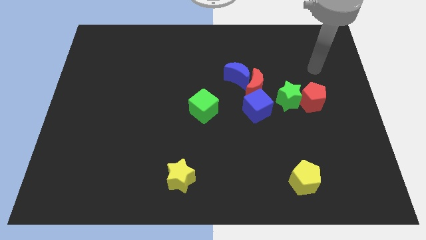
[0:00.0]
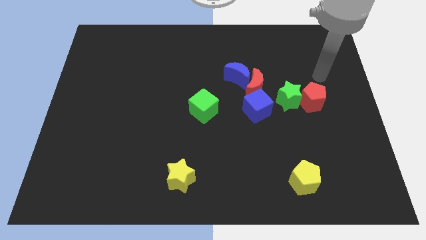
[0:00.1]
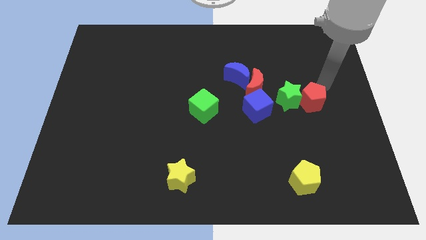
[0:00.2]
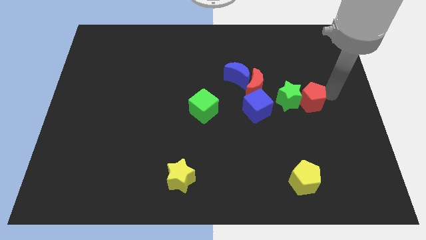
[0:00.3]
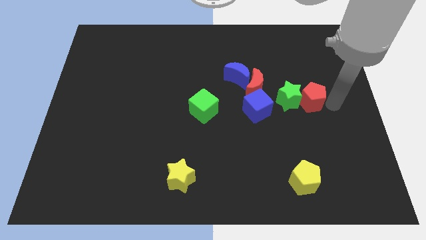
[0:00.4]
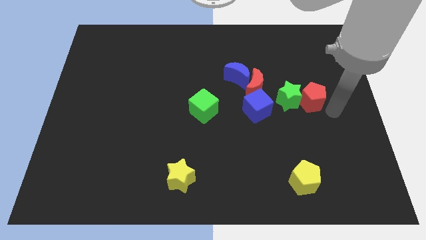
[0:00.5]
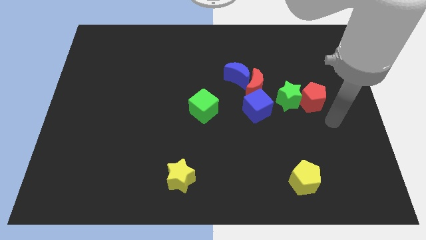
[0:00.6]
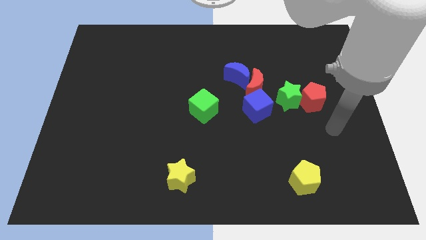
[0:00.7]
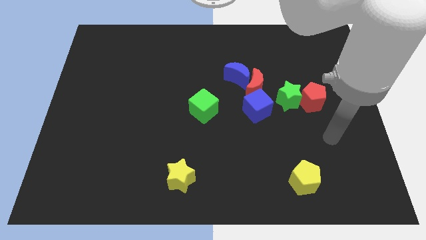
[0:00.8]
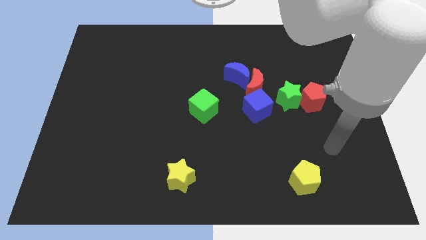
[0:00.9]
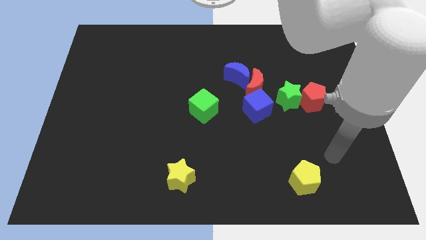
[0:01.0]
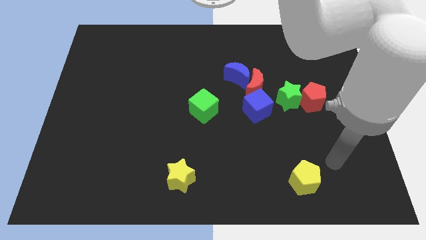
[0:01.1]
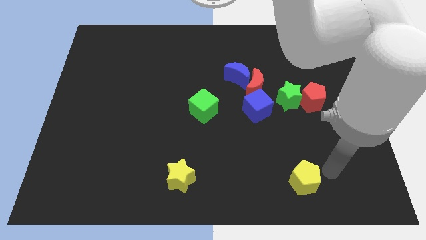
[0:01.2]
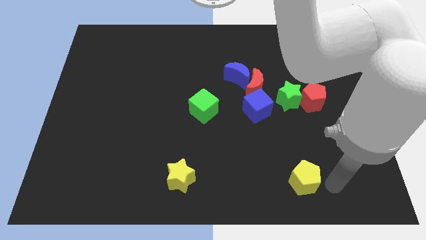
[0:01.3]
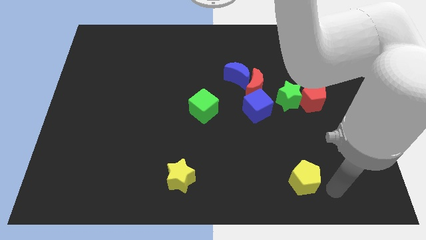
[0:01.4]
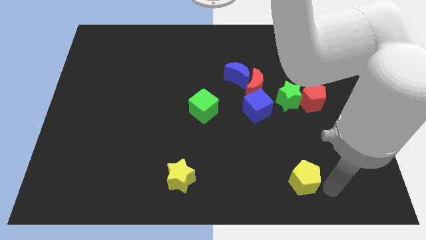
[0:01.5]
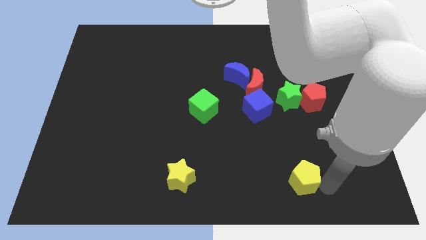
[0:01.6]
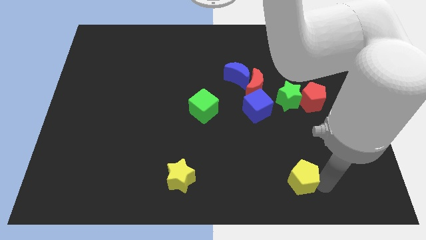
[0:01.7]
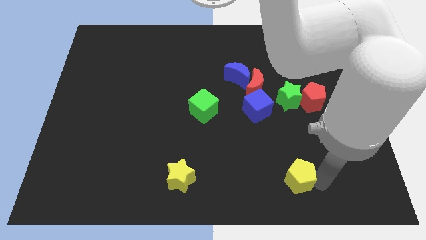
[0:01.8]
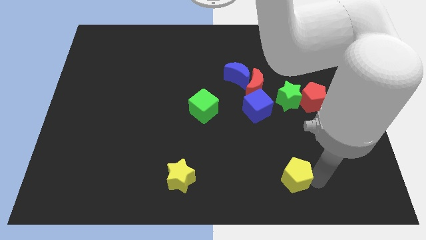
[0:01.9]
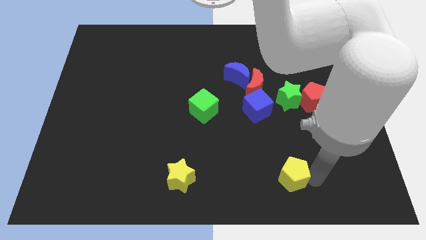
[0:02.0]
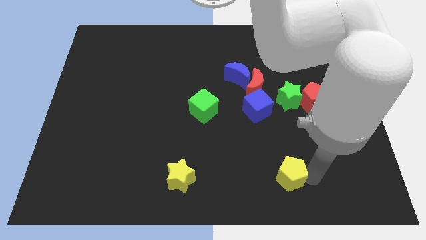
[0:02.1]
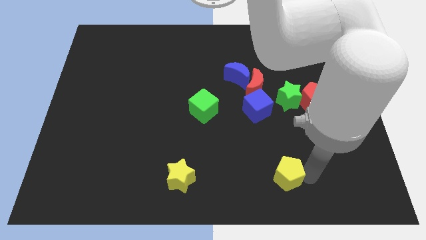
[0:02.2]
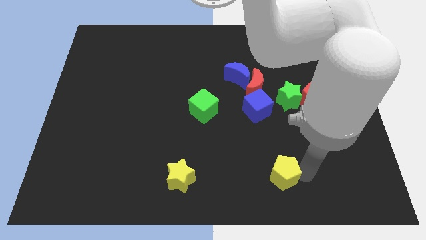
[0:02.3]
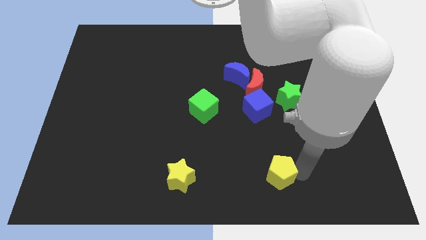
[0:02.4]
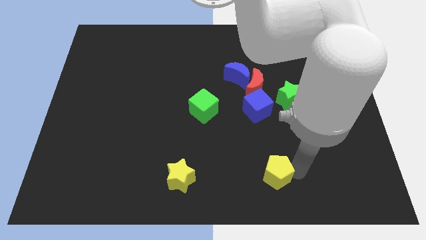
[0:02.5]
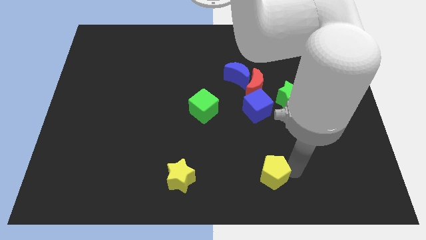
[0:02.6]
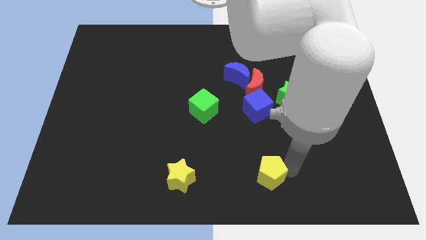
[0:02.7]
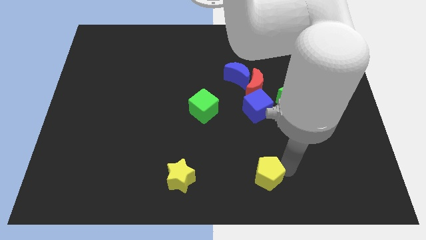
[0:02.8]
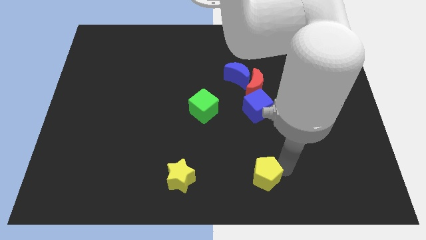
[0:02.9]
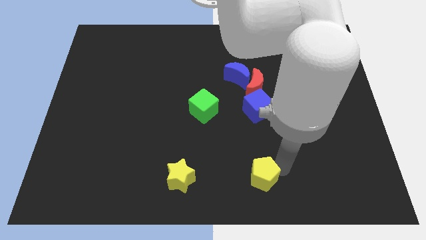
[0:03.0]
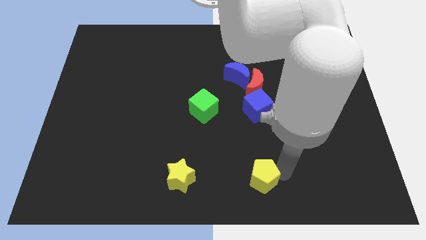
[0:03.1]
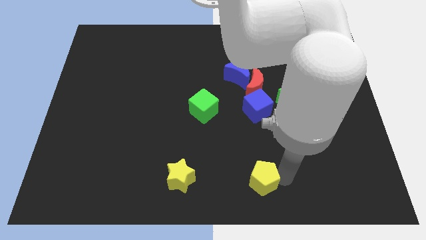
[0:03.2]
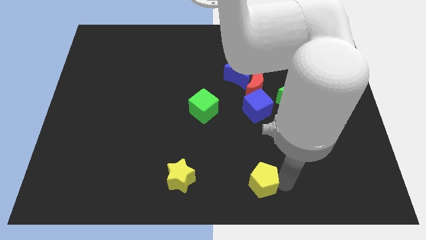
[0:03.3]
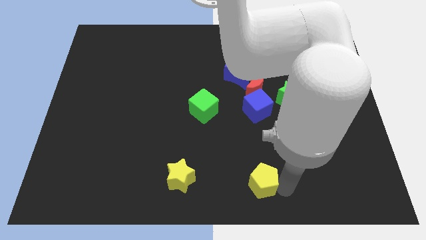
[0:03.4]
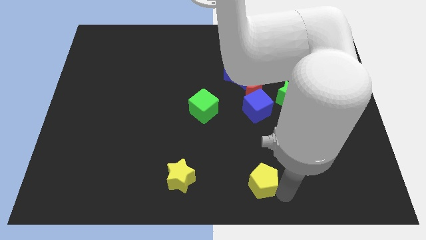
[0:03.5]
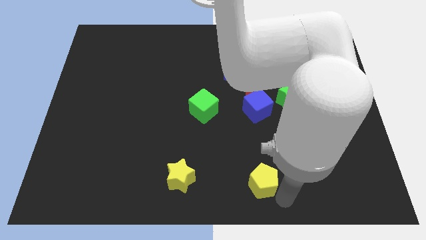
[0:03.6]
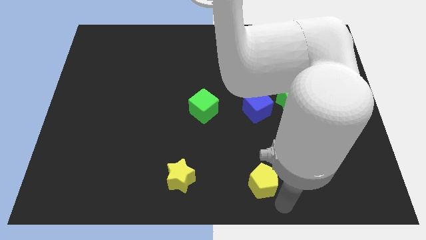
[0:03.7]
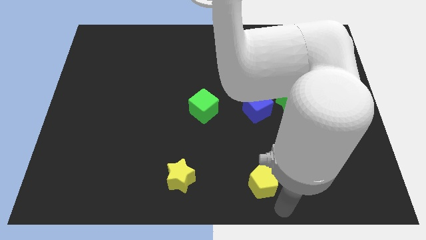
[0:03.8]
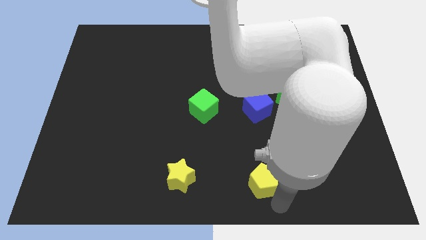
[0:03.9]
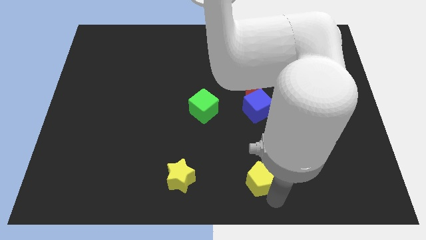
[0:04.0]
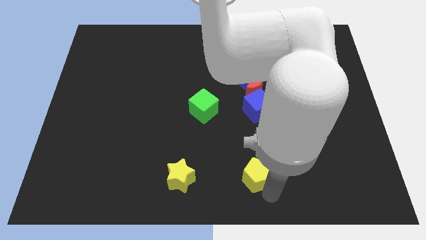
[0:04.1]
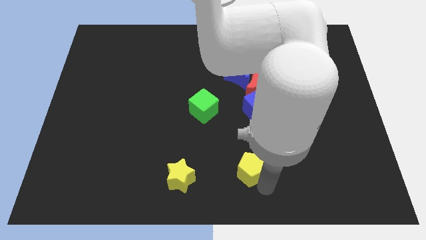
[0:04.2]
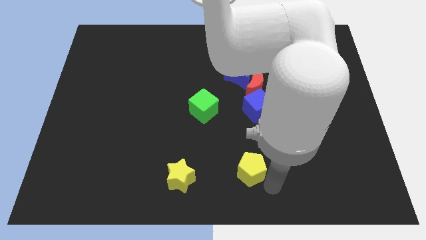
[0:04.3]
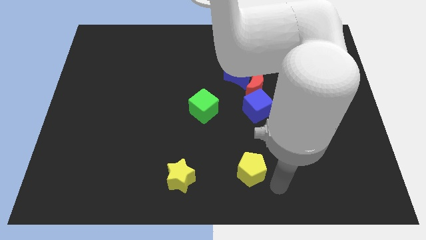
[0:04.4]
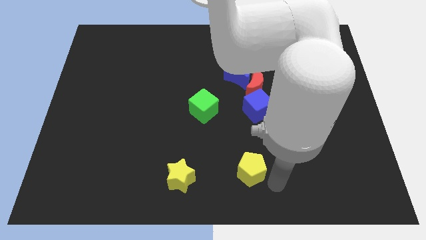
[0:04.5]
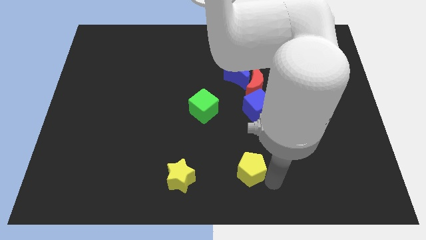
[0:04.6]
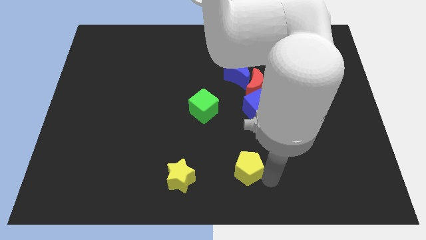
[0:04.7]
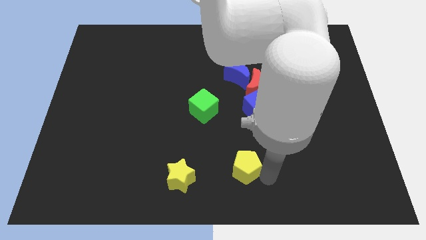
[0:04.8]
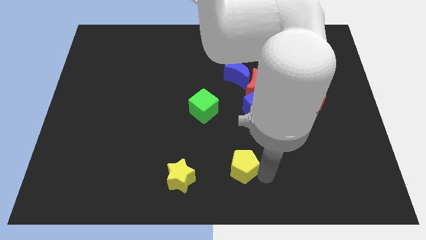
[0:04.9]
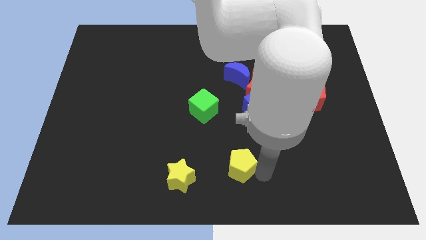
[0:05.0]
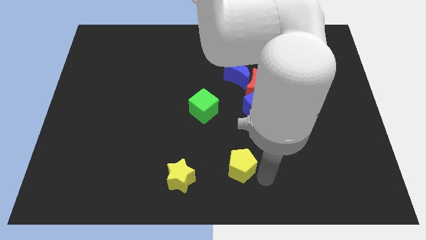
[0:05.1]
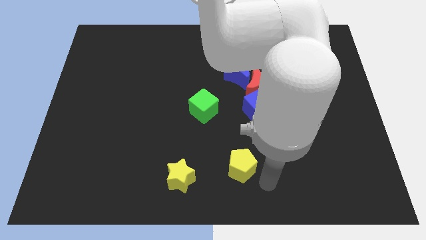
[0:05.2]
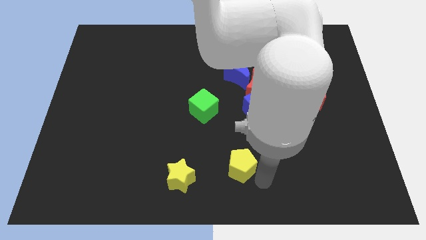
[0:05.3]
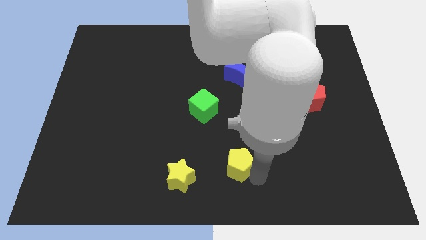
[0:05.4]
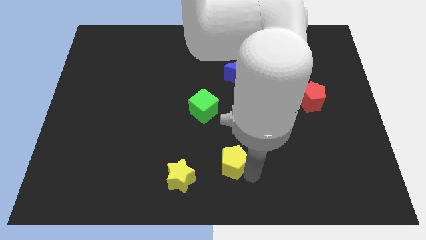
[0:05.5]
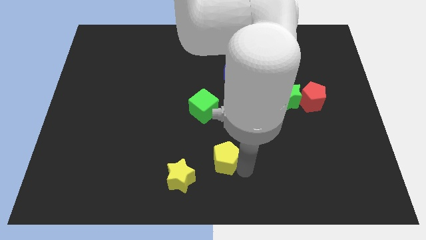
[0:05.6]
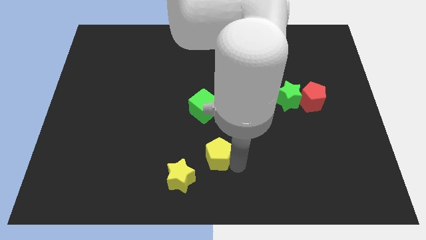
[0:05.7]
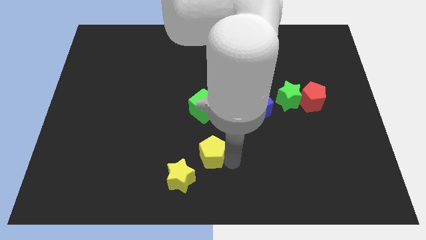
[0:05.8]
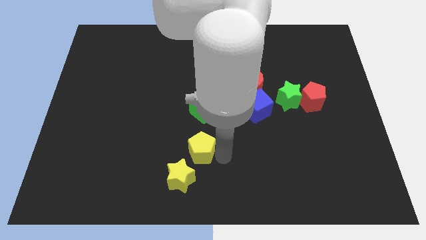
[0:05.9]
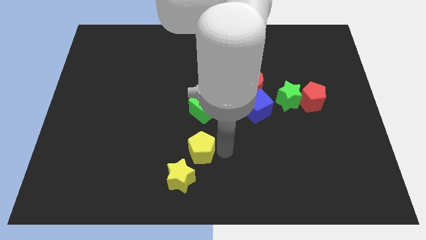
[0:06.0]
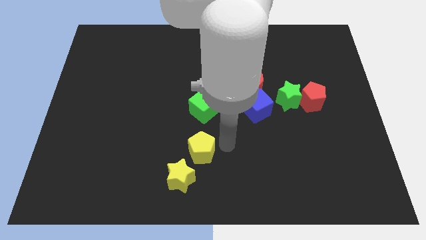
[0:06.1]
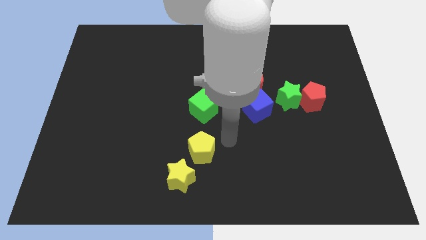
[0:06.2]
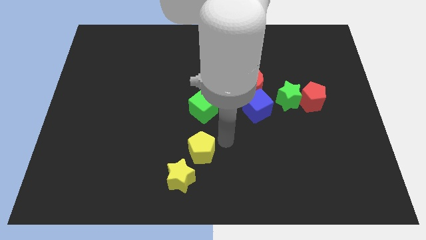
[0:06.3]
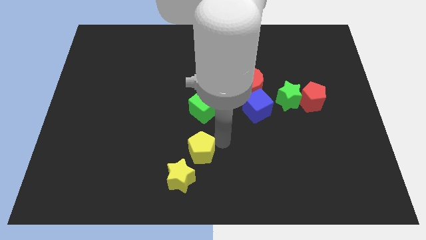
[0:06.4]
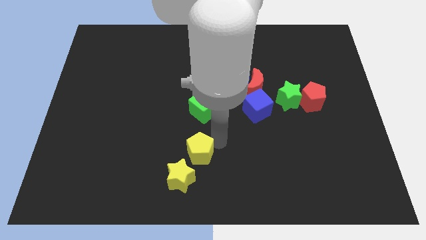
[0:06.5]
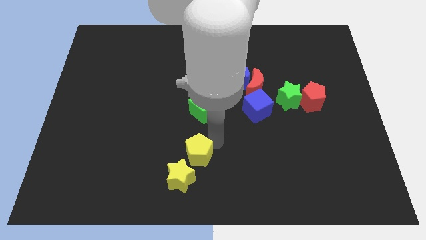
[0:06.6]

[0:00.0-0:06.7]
slide the yellow pentagon left

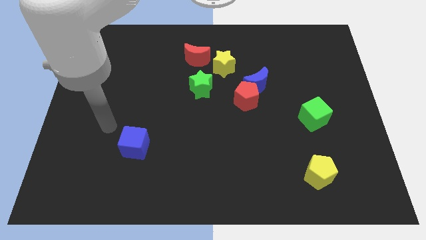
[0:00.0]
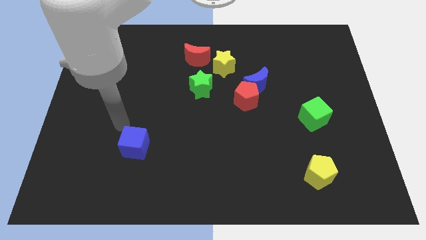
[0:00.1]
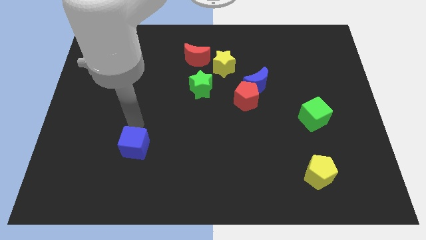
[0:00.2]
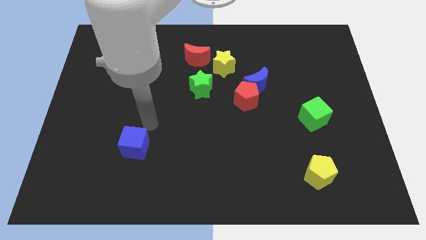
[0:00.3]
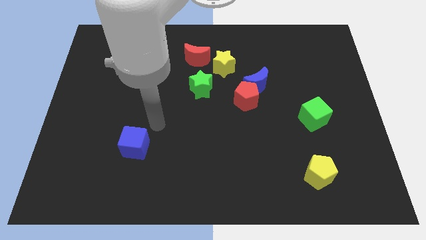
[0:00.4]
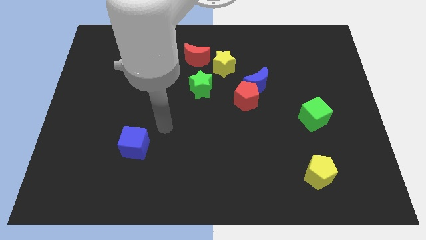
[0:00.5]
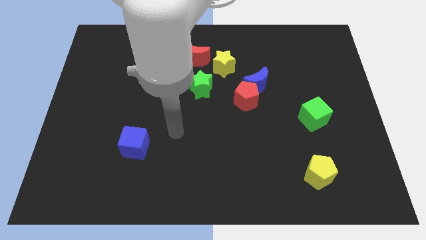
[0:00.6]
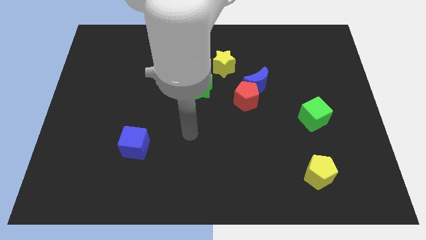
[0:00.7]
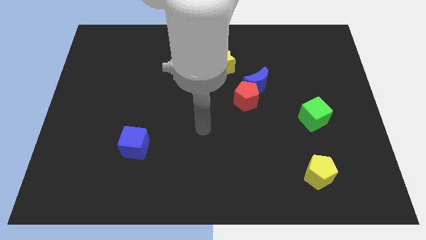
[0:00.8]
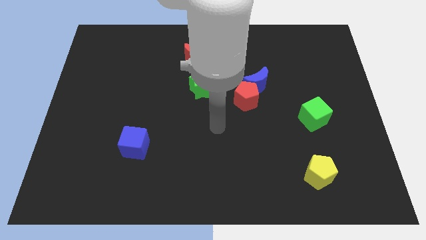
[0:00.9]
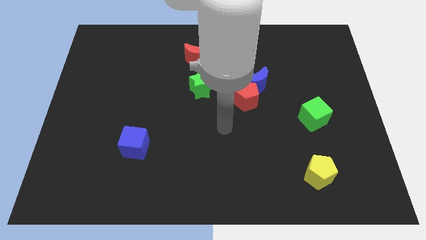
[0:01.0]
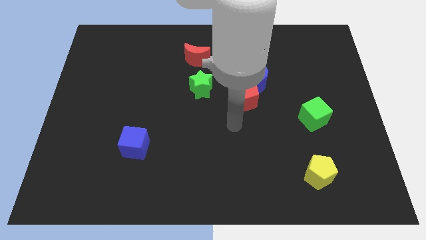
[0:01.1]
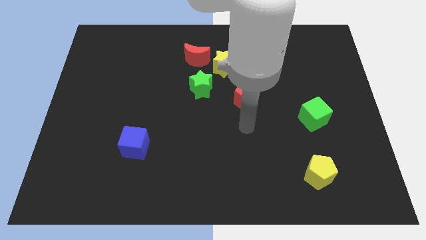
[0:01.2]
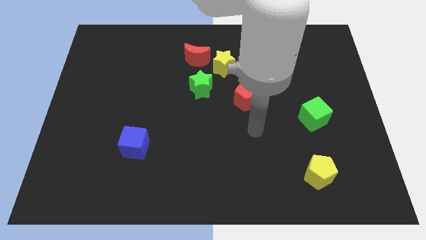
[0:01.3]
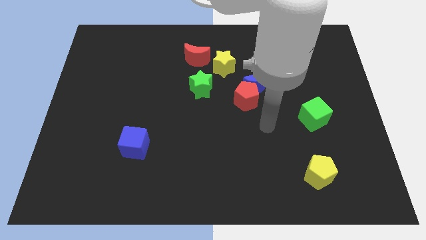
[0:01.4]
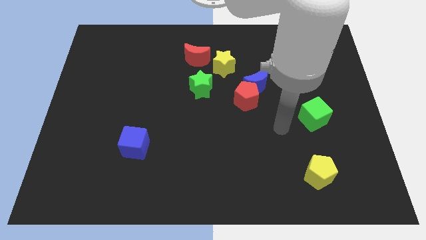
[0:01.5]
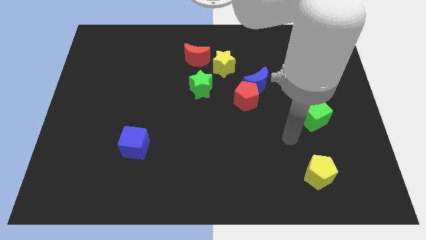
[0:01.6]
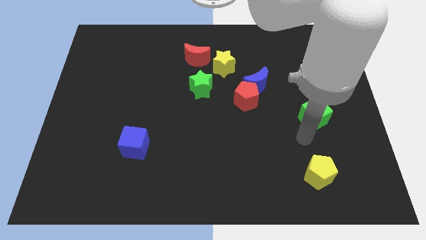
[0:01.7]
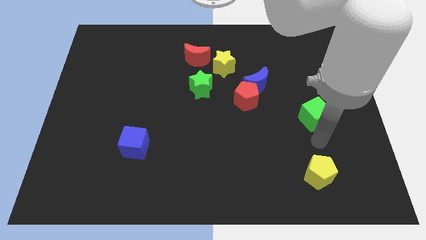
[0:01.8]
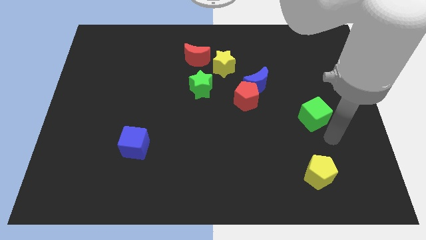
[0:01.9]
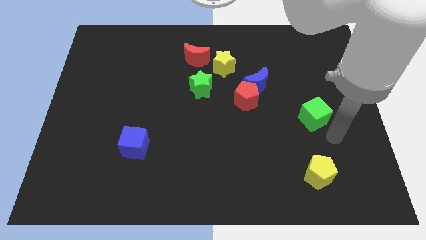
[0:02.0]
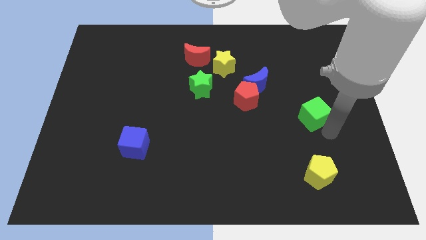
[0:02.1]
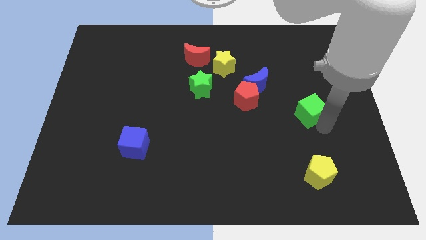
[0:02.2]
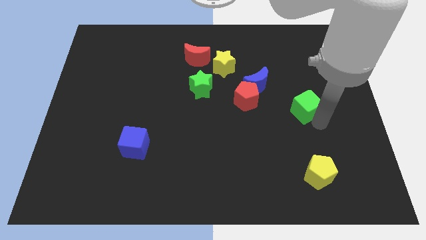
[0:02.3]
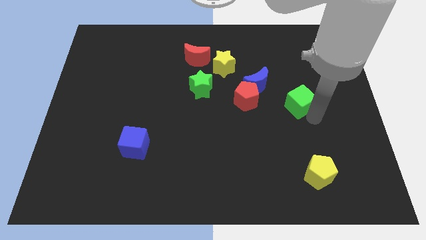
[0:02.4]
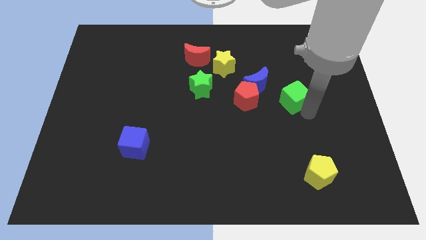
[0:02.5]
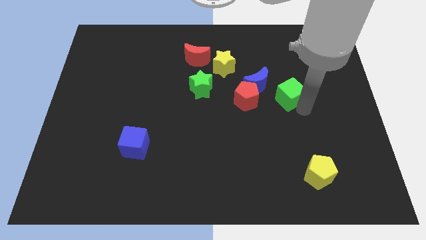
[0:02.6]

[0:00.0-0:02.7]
move the green cube diagonally up and left a little
